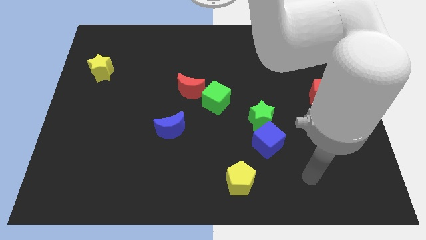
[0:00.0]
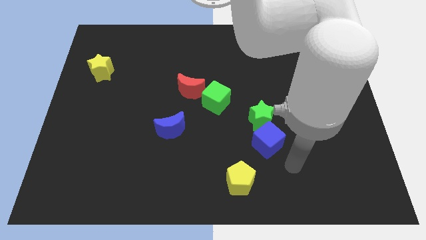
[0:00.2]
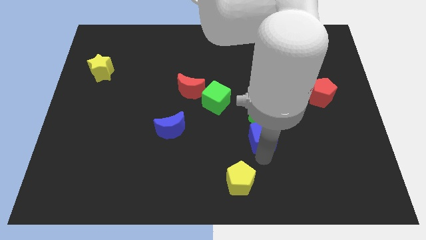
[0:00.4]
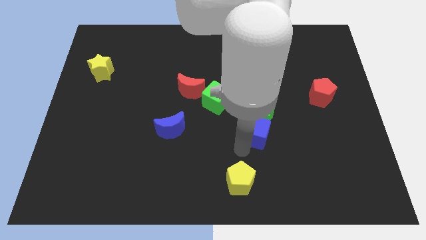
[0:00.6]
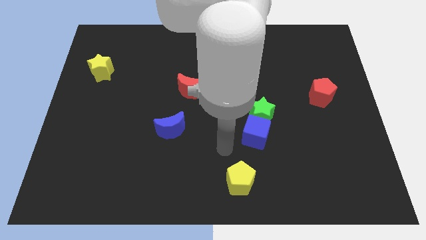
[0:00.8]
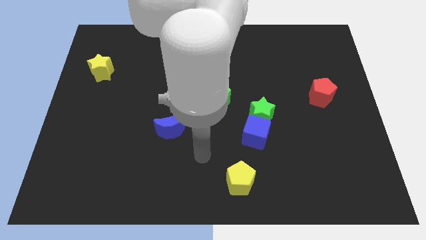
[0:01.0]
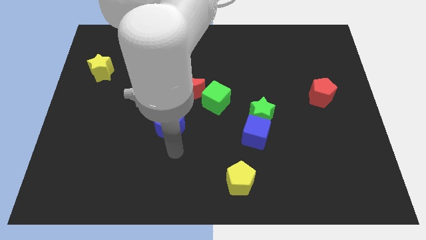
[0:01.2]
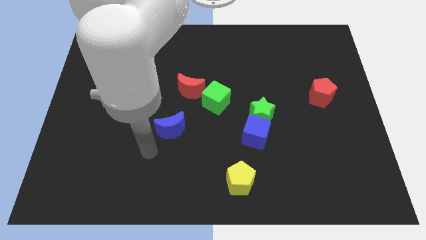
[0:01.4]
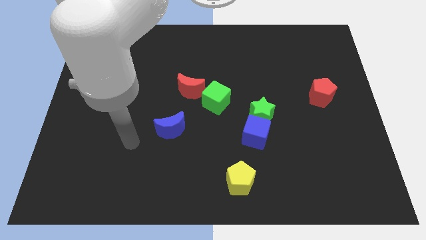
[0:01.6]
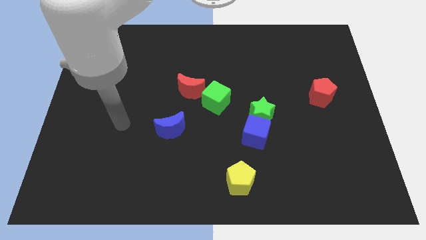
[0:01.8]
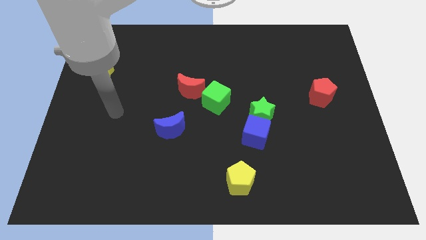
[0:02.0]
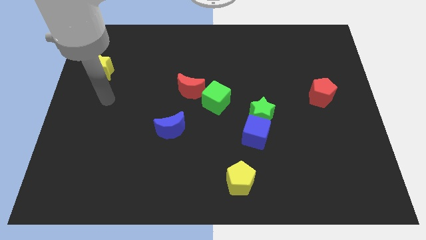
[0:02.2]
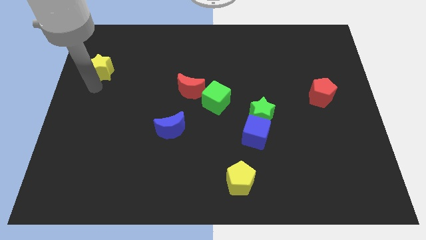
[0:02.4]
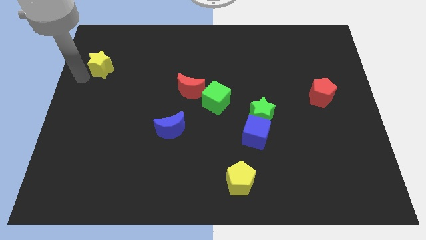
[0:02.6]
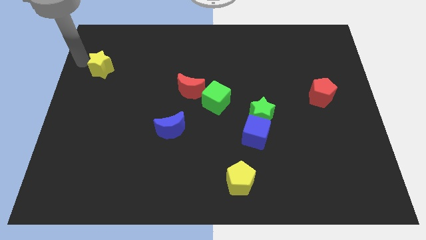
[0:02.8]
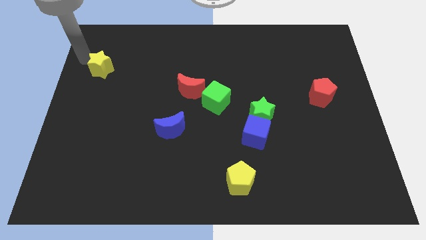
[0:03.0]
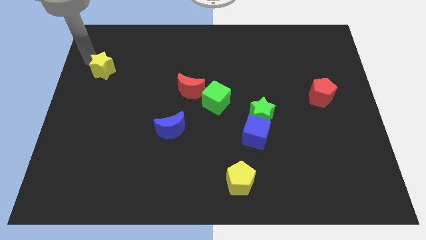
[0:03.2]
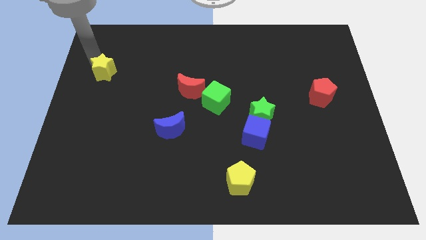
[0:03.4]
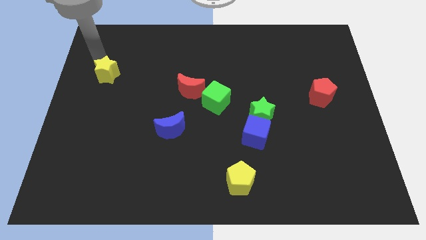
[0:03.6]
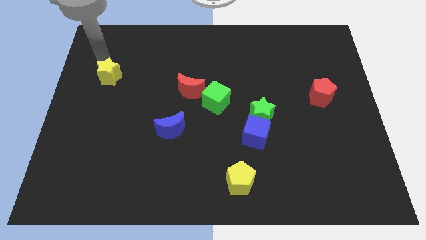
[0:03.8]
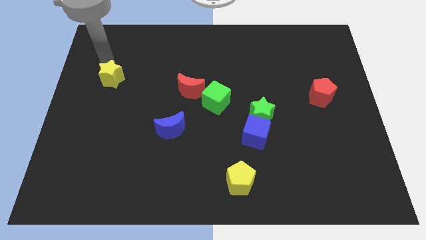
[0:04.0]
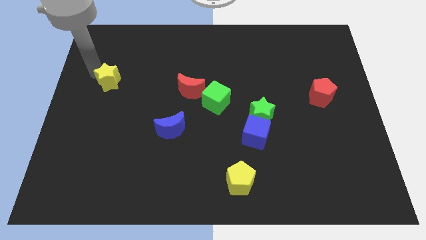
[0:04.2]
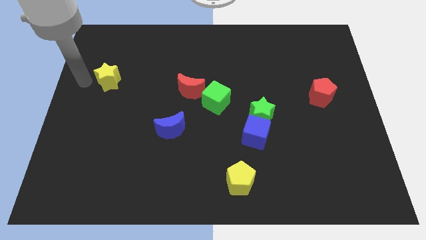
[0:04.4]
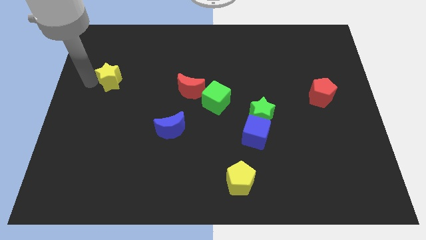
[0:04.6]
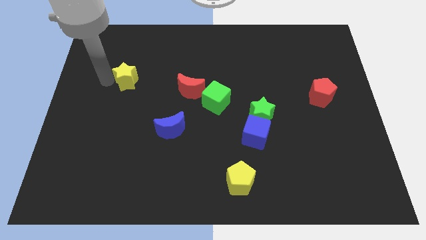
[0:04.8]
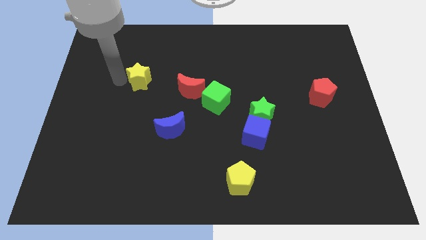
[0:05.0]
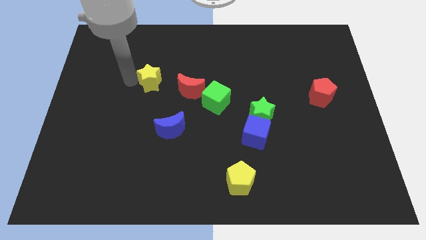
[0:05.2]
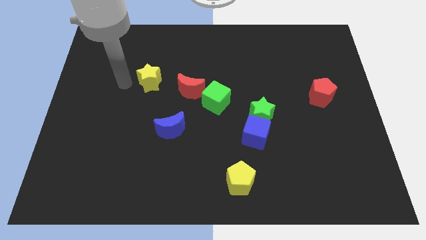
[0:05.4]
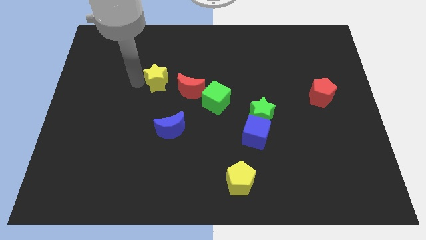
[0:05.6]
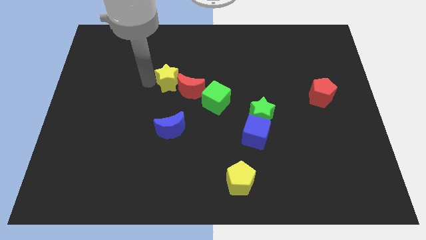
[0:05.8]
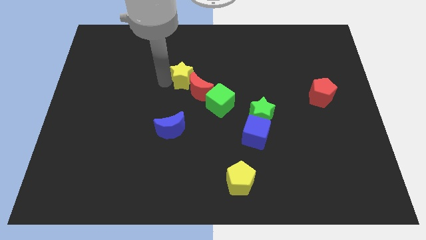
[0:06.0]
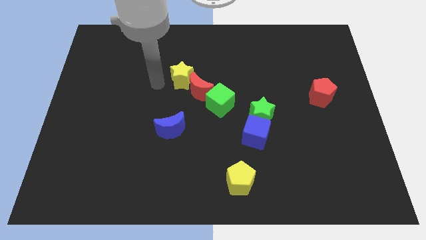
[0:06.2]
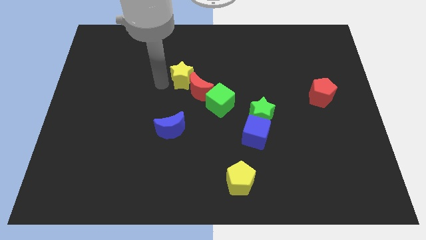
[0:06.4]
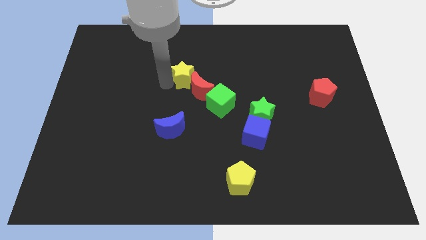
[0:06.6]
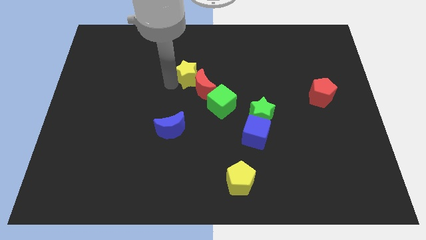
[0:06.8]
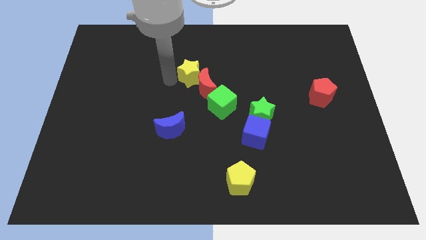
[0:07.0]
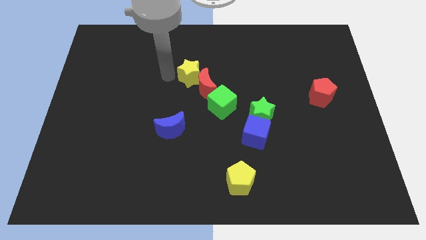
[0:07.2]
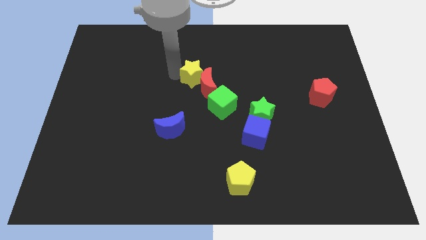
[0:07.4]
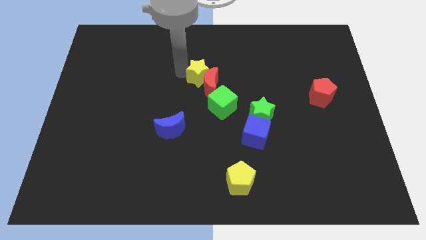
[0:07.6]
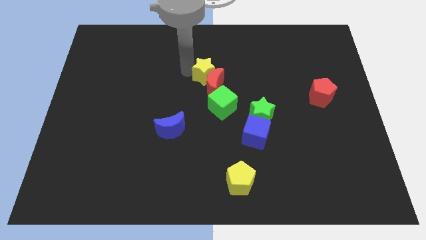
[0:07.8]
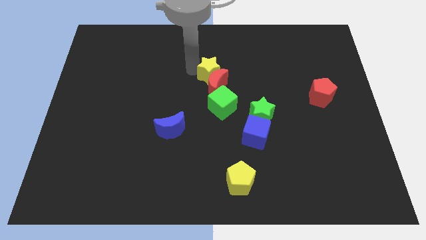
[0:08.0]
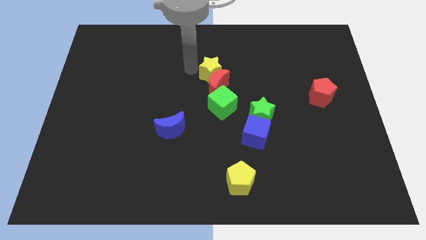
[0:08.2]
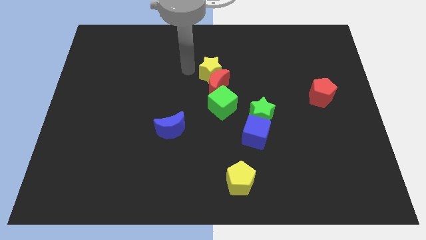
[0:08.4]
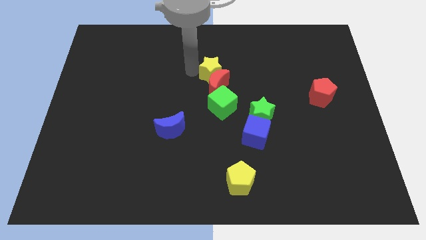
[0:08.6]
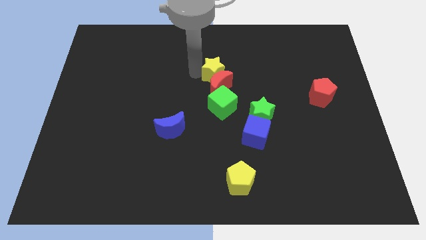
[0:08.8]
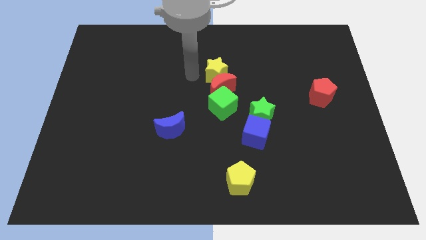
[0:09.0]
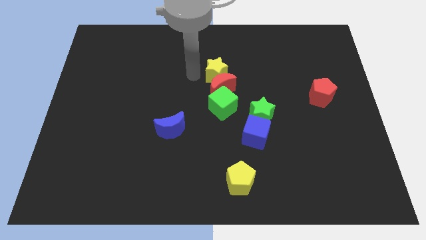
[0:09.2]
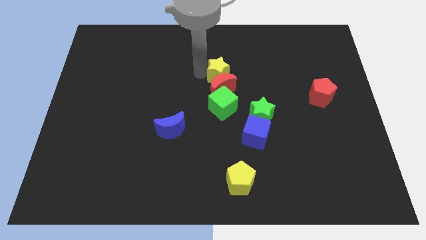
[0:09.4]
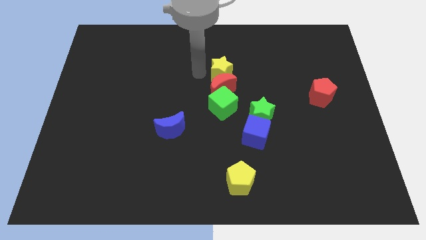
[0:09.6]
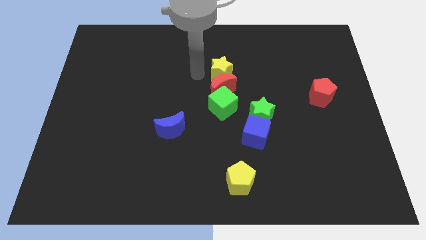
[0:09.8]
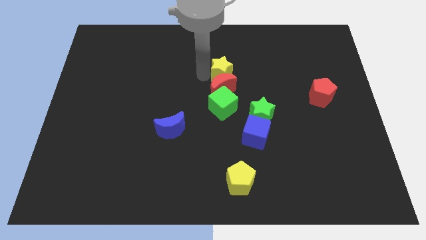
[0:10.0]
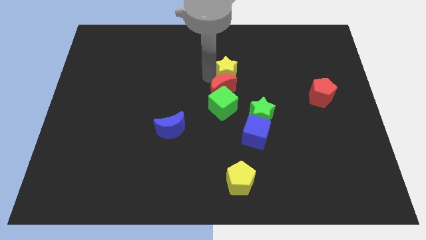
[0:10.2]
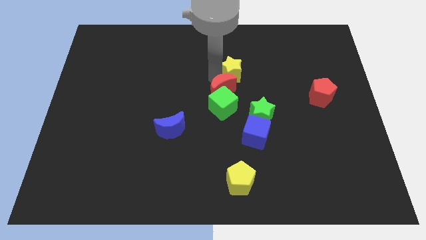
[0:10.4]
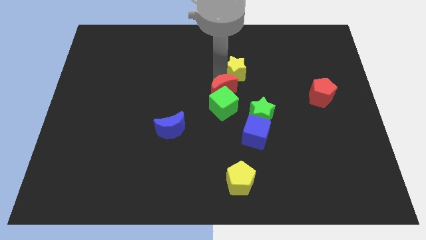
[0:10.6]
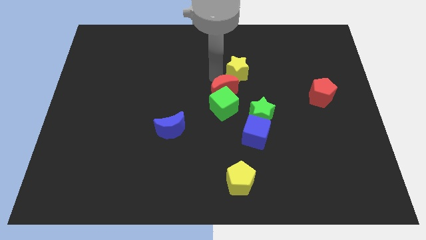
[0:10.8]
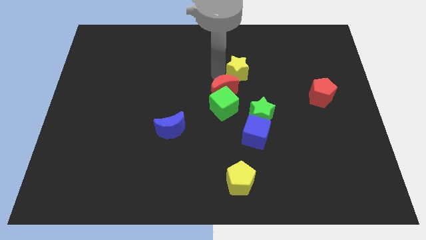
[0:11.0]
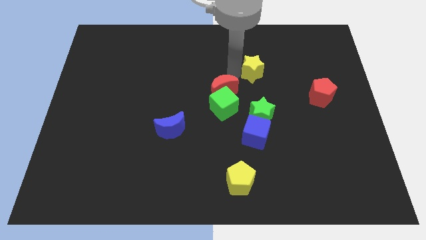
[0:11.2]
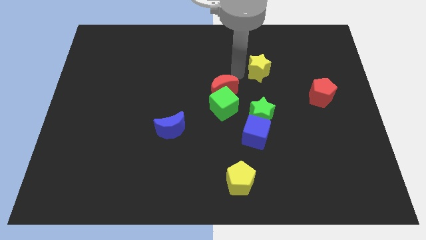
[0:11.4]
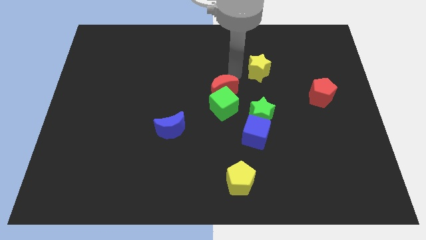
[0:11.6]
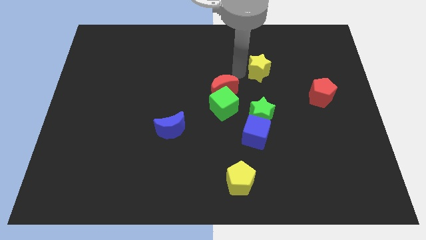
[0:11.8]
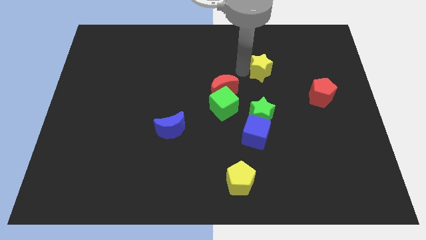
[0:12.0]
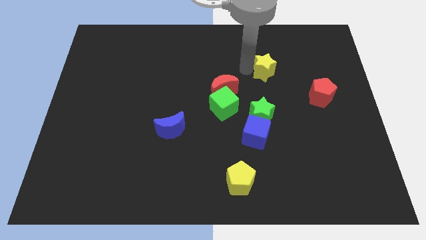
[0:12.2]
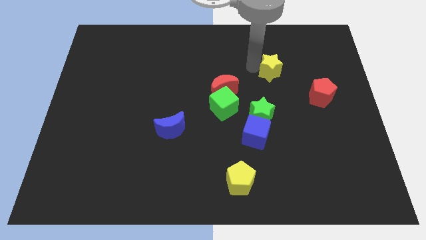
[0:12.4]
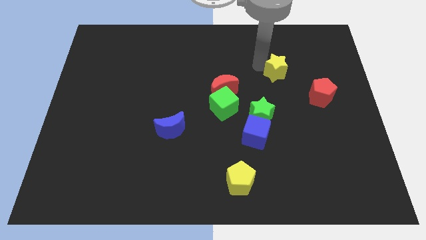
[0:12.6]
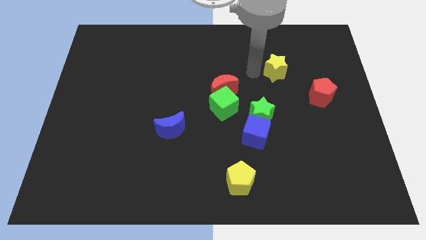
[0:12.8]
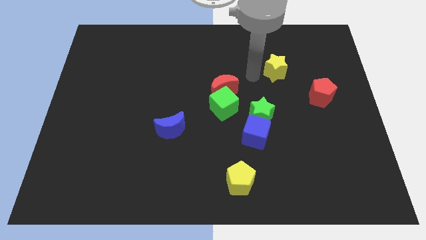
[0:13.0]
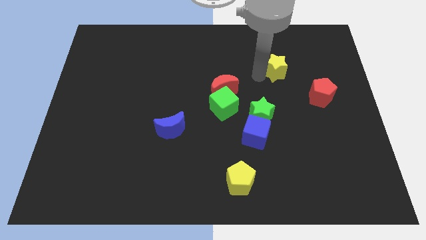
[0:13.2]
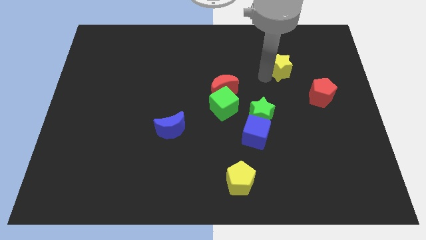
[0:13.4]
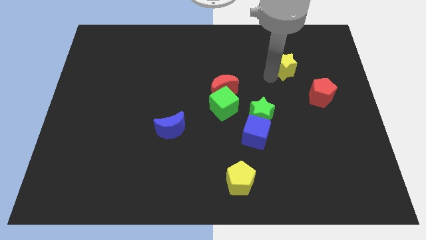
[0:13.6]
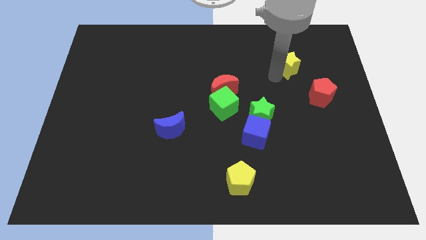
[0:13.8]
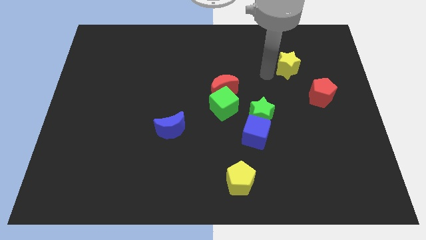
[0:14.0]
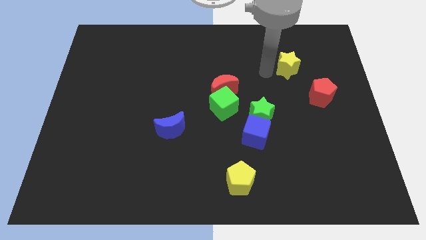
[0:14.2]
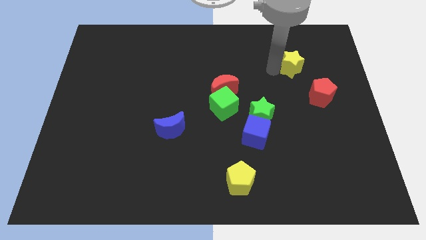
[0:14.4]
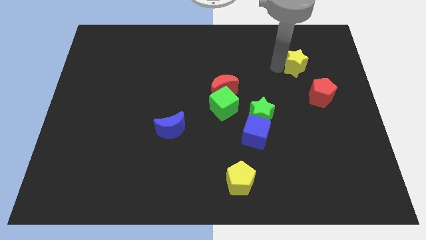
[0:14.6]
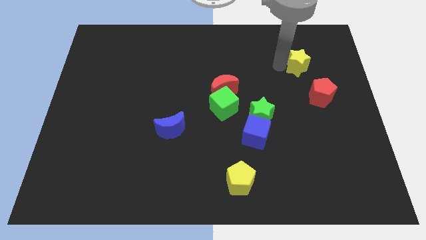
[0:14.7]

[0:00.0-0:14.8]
slide the yellow star to the top of the red pentagon
